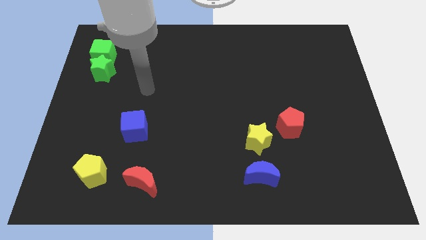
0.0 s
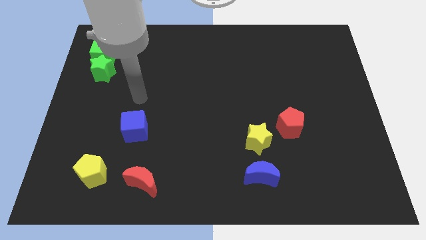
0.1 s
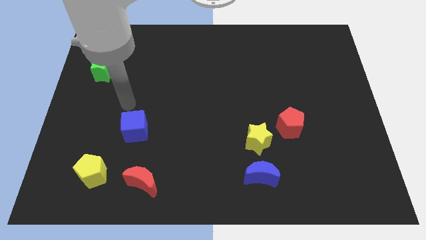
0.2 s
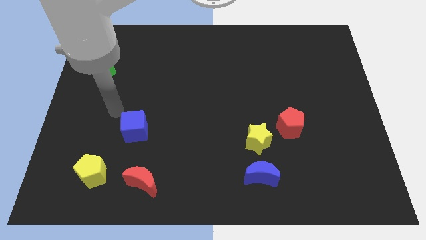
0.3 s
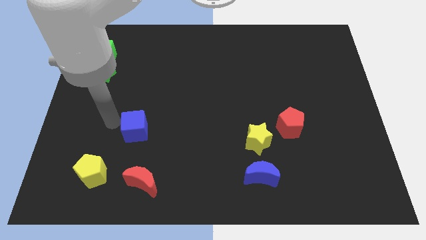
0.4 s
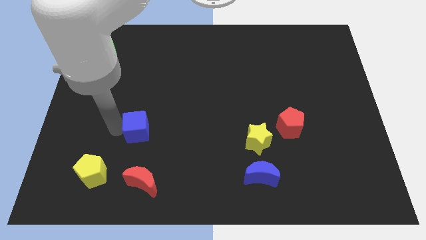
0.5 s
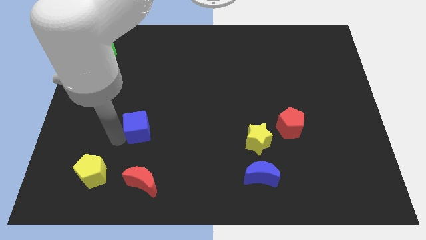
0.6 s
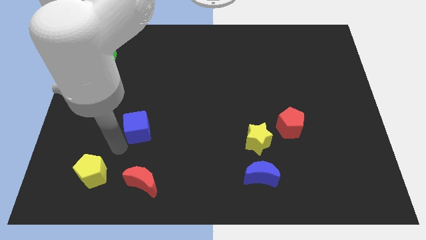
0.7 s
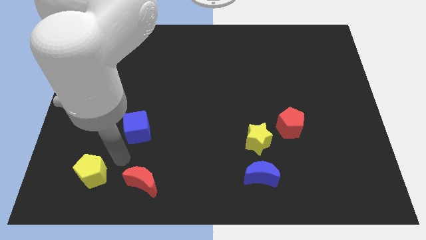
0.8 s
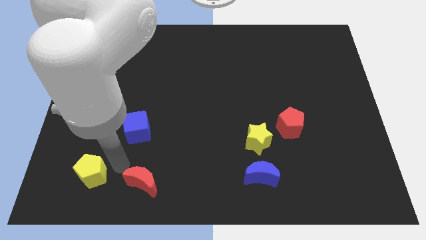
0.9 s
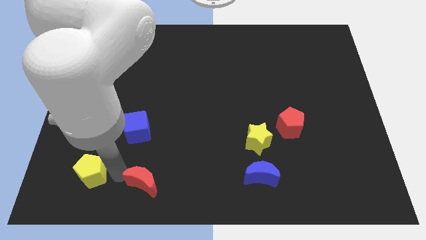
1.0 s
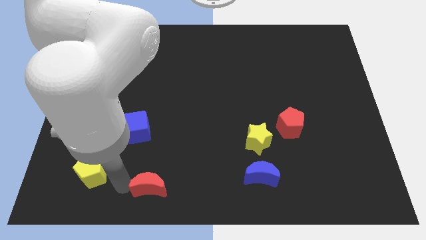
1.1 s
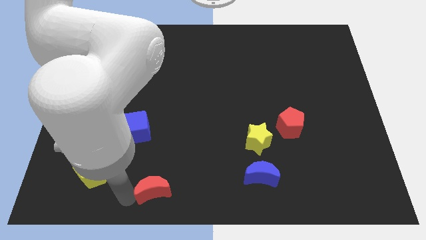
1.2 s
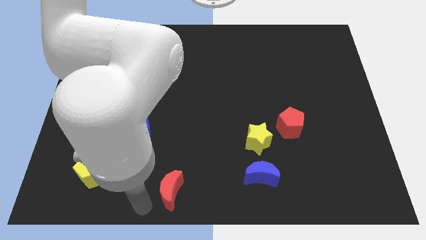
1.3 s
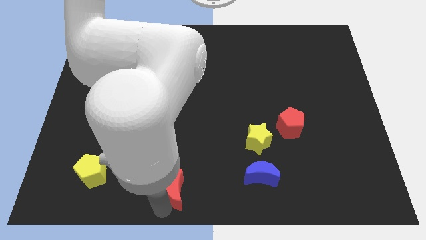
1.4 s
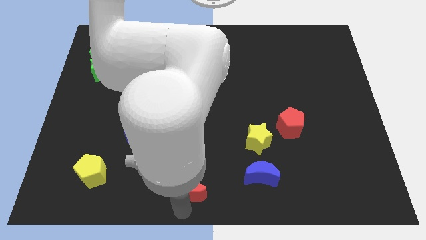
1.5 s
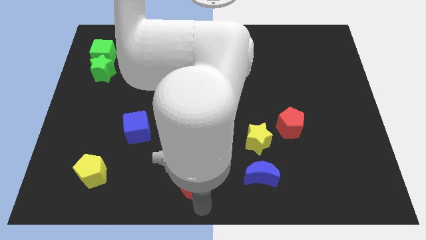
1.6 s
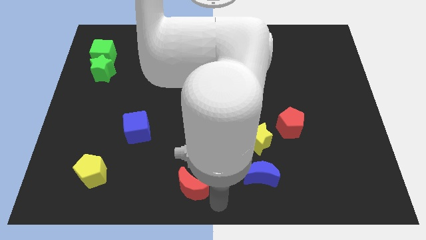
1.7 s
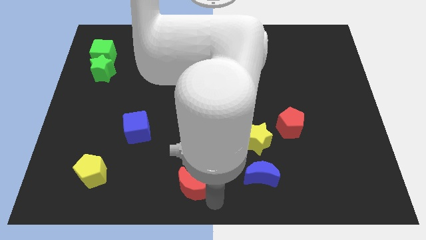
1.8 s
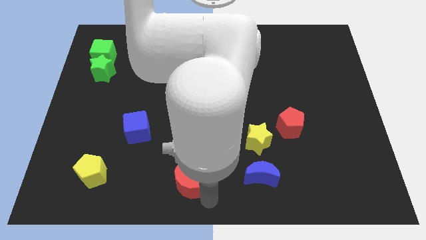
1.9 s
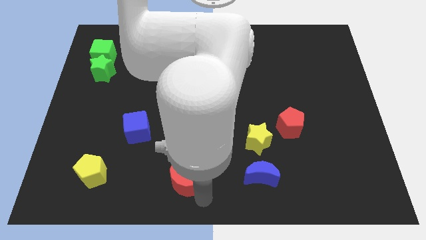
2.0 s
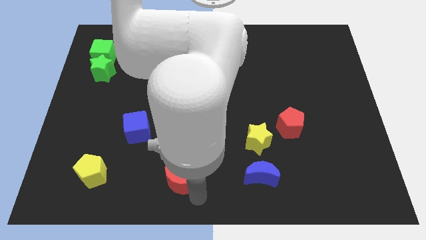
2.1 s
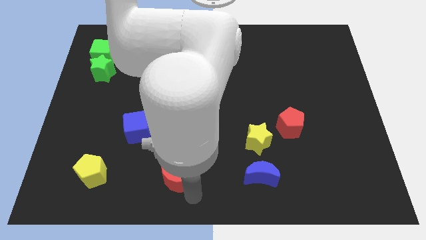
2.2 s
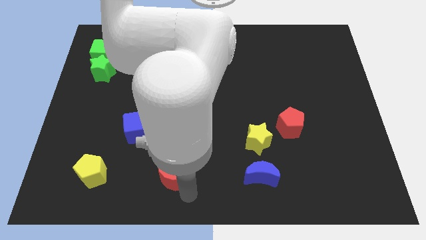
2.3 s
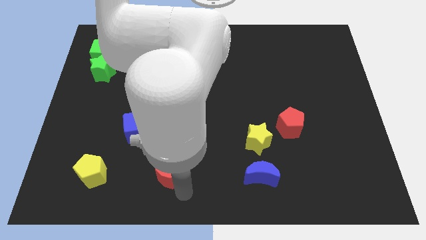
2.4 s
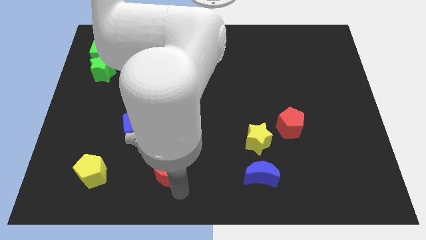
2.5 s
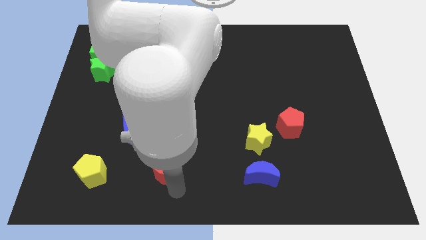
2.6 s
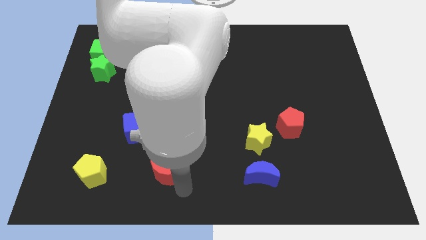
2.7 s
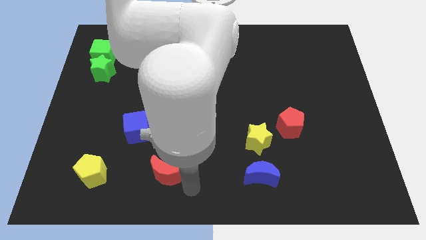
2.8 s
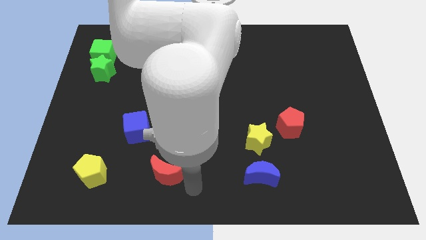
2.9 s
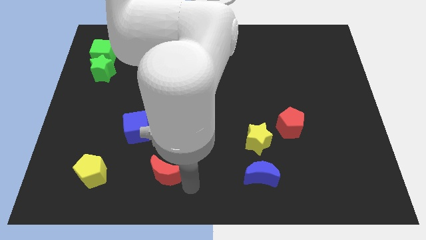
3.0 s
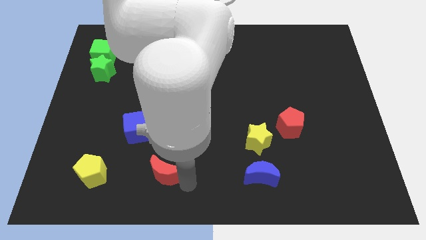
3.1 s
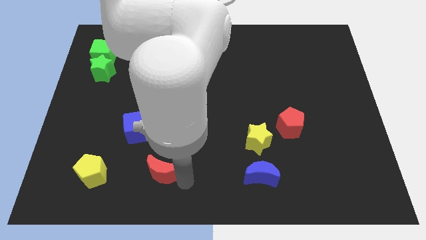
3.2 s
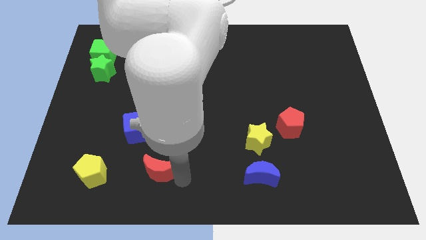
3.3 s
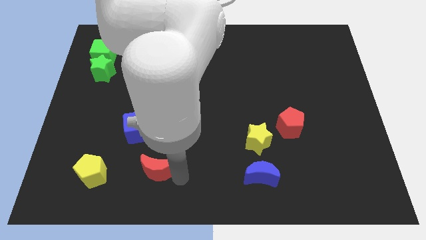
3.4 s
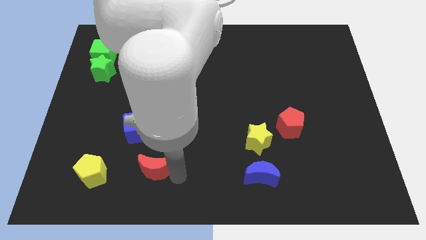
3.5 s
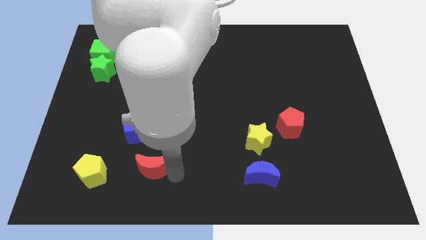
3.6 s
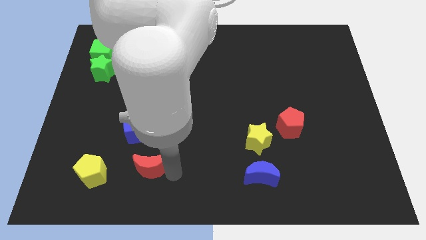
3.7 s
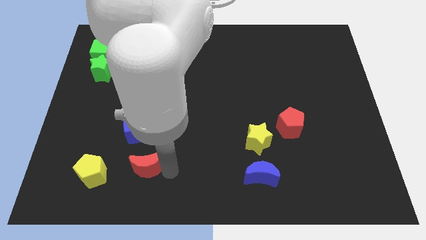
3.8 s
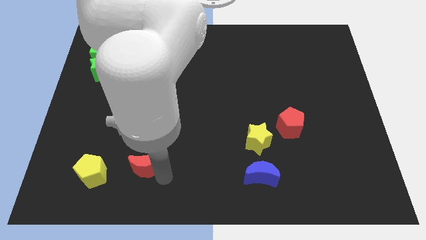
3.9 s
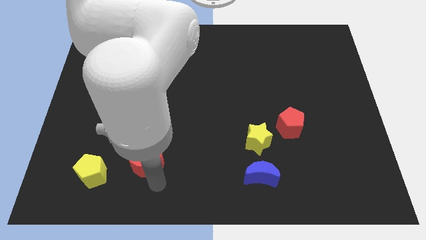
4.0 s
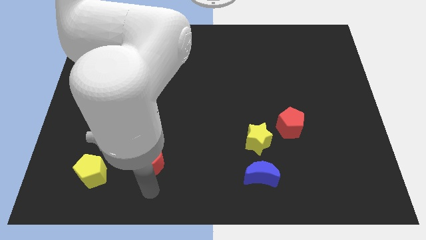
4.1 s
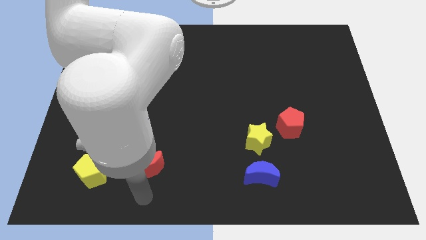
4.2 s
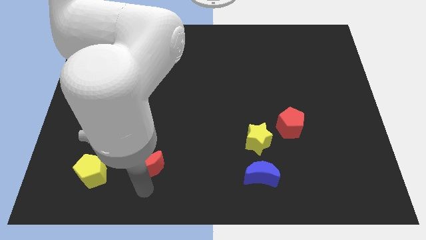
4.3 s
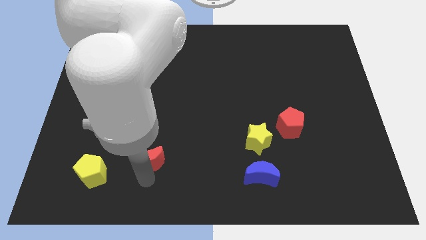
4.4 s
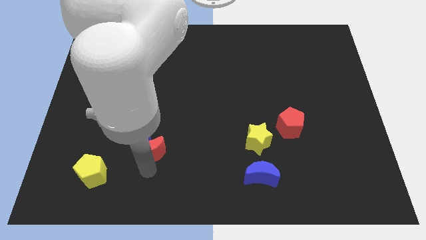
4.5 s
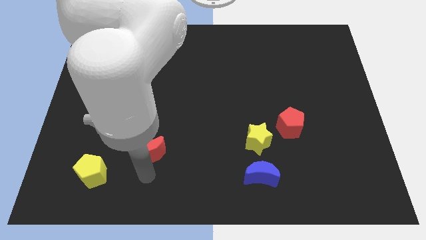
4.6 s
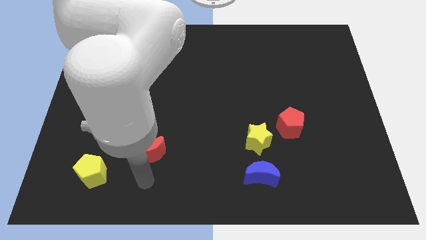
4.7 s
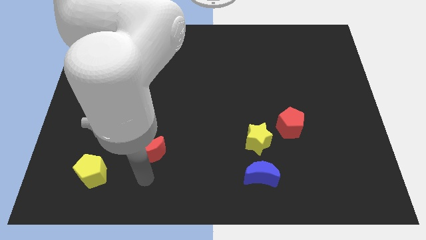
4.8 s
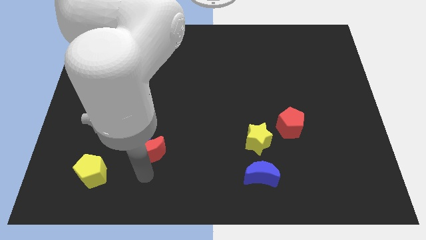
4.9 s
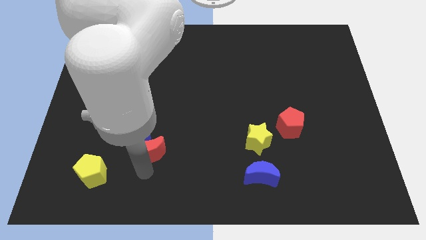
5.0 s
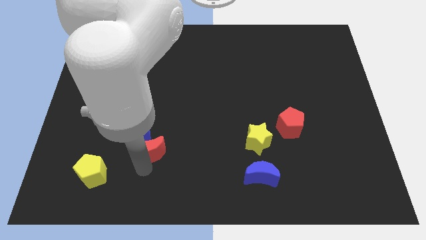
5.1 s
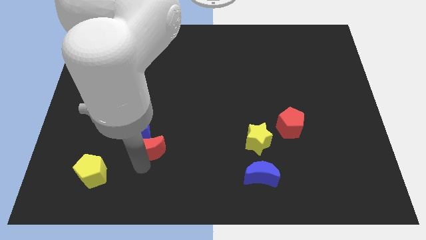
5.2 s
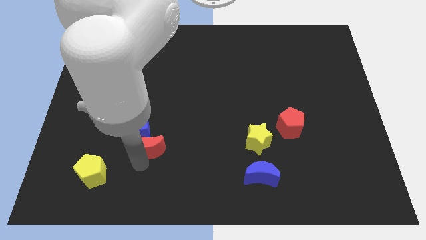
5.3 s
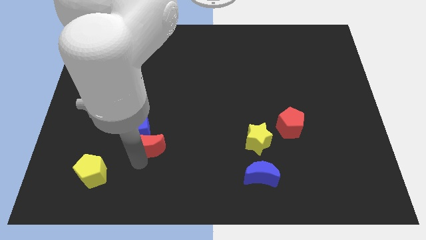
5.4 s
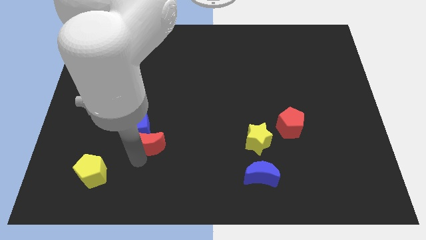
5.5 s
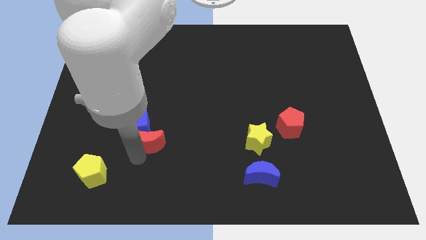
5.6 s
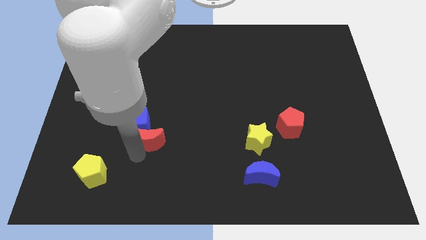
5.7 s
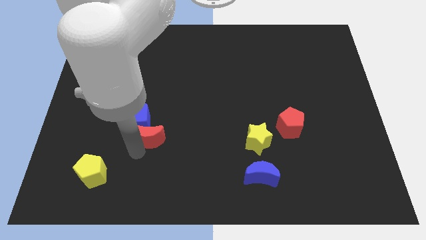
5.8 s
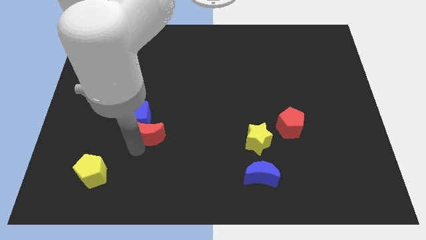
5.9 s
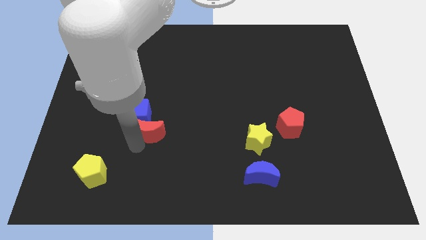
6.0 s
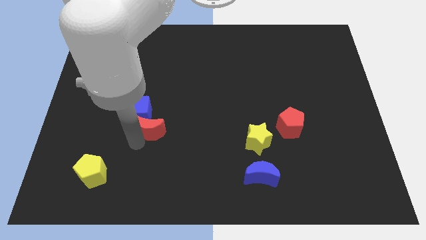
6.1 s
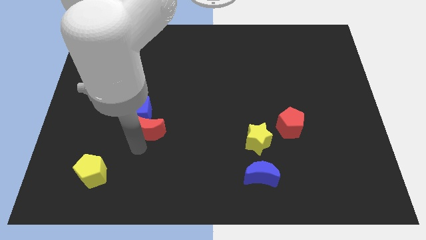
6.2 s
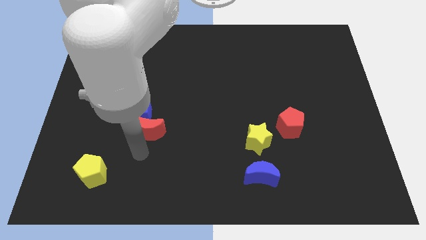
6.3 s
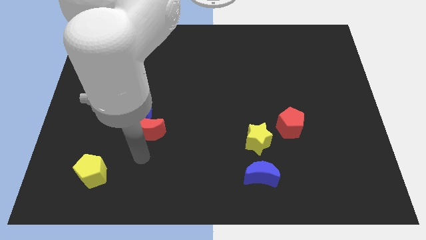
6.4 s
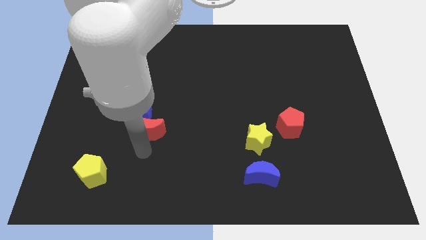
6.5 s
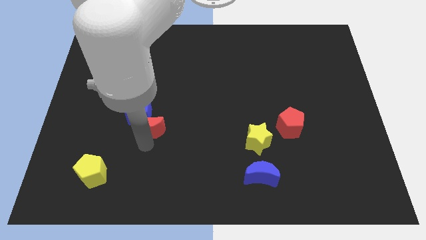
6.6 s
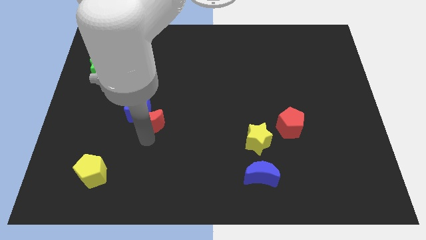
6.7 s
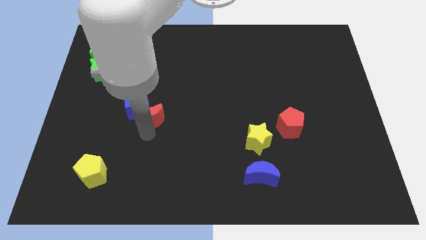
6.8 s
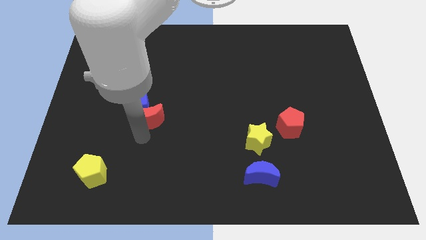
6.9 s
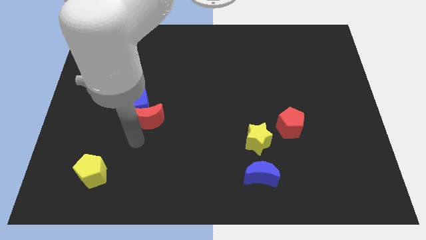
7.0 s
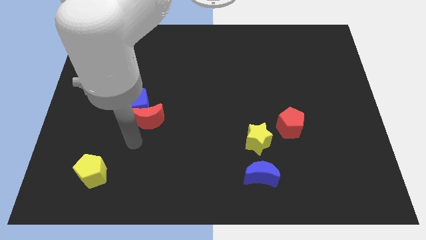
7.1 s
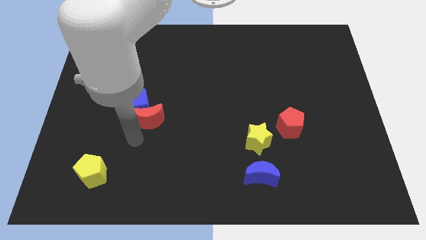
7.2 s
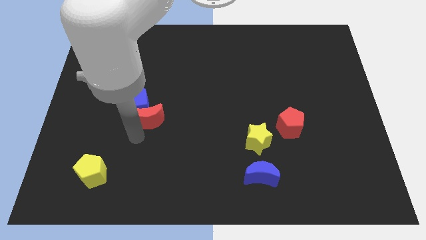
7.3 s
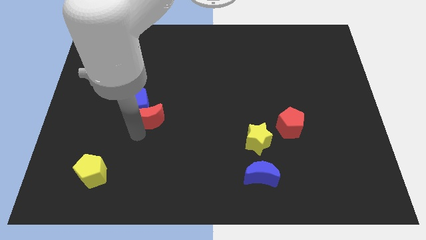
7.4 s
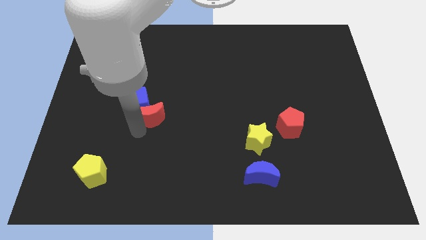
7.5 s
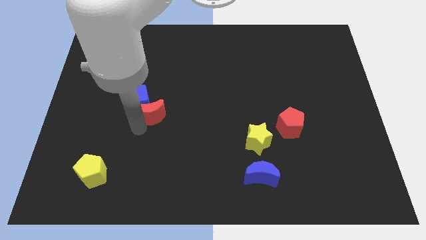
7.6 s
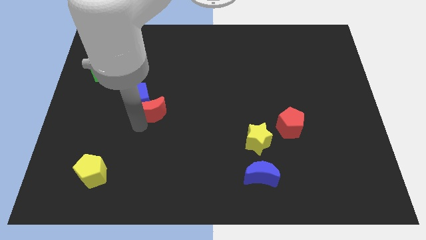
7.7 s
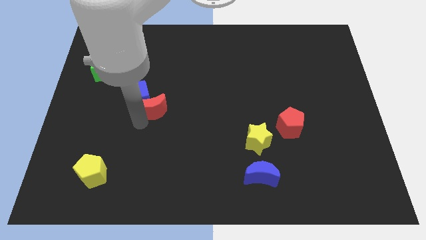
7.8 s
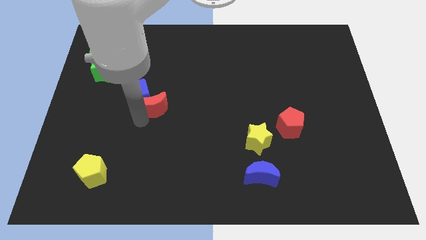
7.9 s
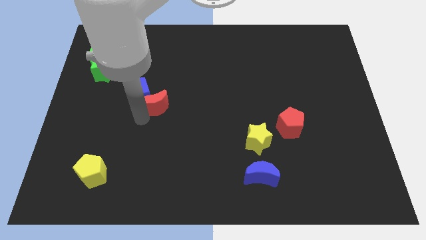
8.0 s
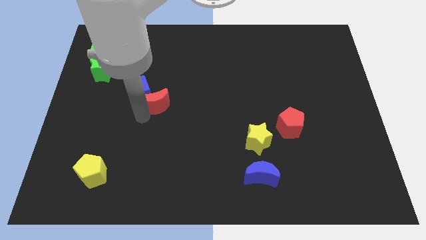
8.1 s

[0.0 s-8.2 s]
slide the red moon up

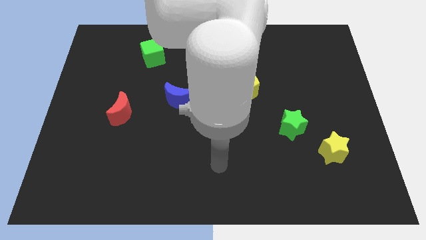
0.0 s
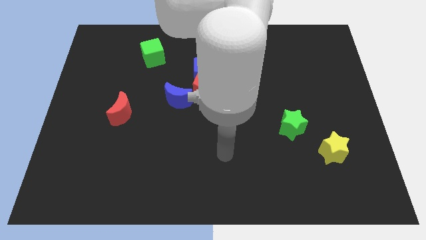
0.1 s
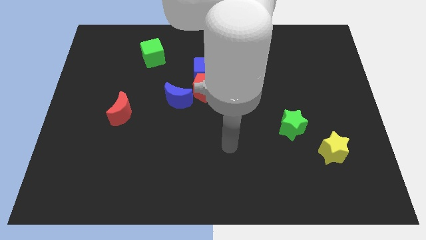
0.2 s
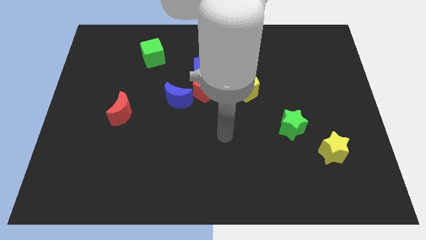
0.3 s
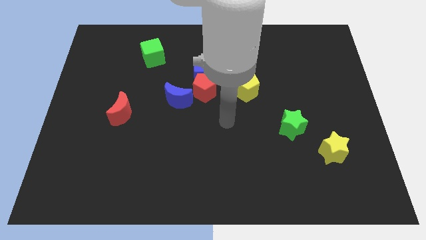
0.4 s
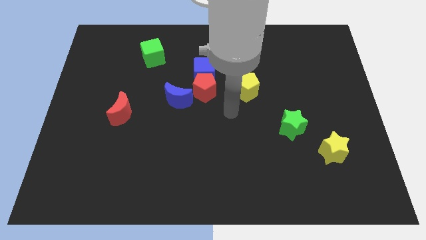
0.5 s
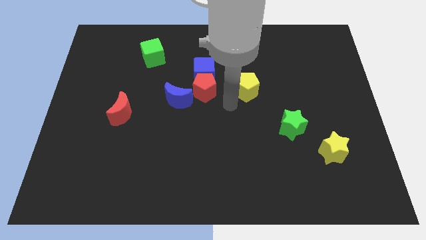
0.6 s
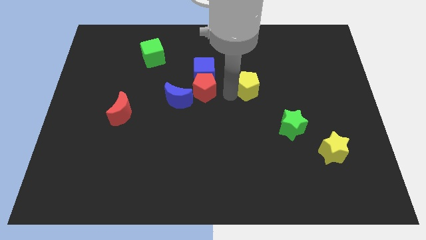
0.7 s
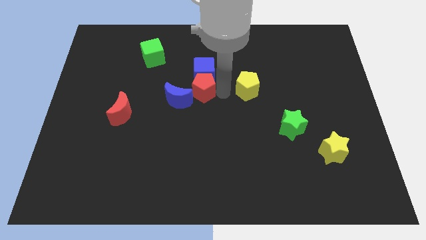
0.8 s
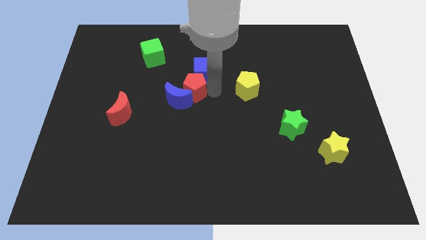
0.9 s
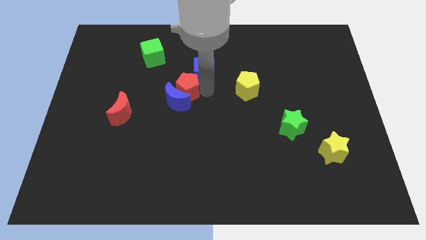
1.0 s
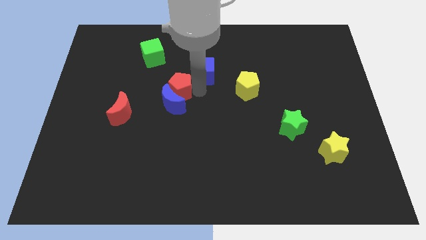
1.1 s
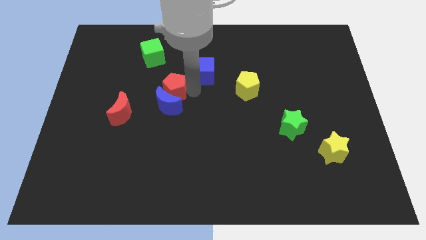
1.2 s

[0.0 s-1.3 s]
move the red pentagon to the left a little
